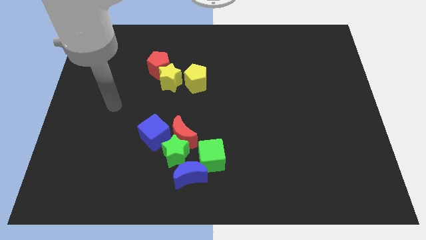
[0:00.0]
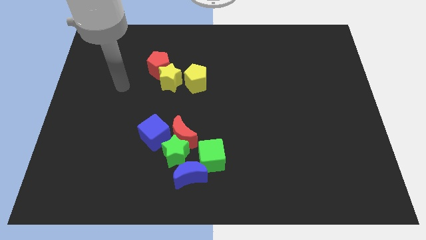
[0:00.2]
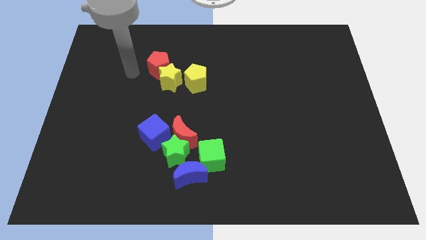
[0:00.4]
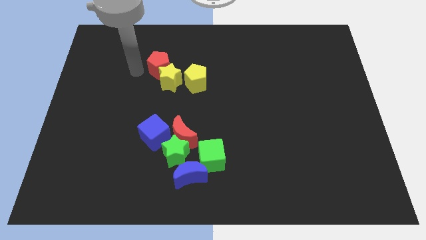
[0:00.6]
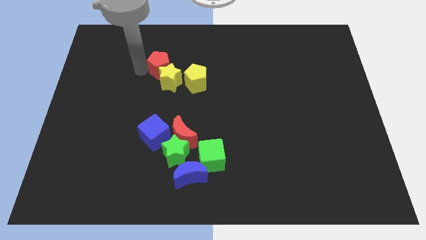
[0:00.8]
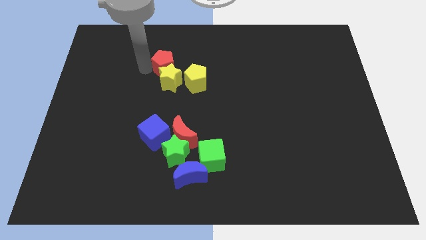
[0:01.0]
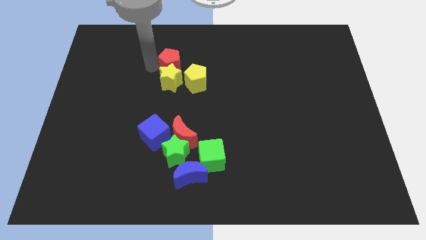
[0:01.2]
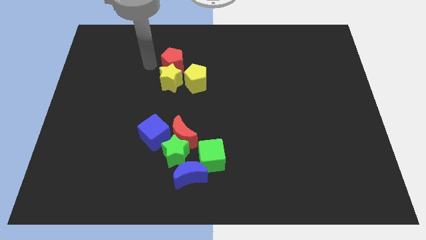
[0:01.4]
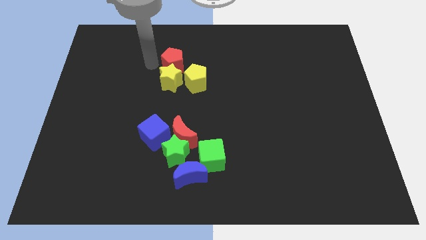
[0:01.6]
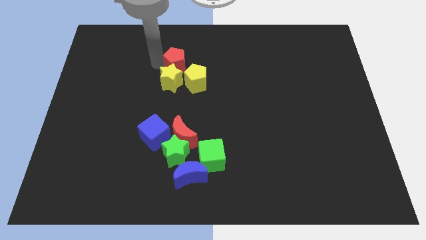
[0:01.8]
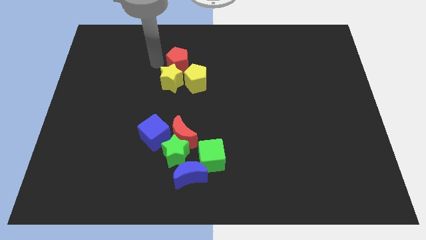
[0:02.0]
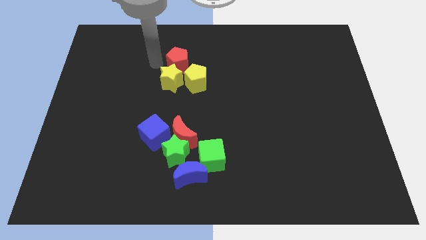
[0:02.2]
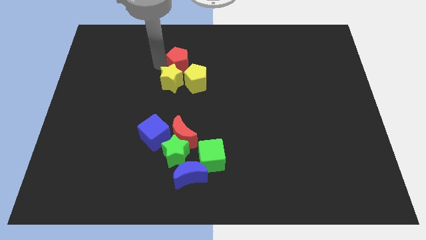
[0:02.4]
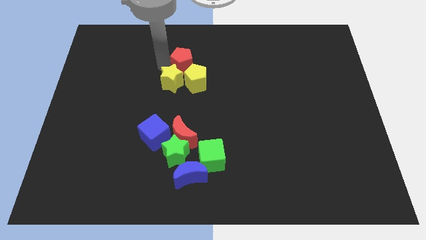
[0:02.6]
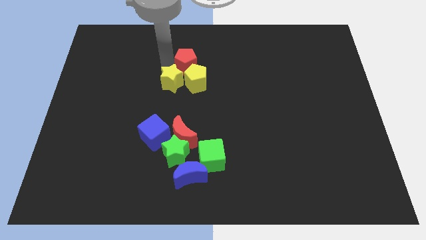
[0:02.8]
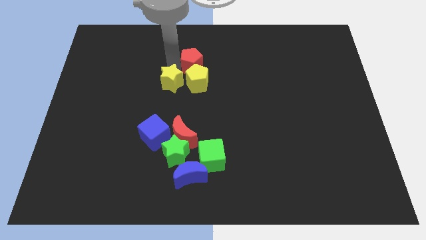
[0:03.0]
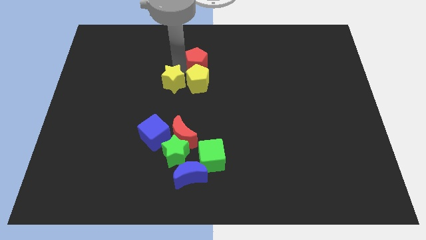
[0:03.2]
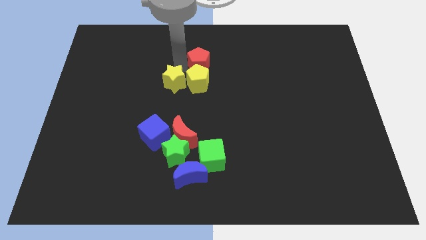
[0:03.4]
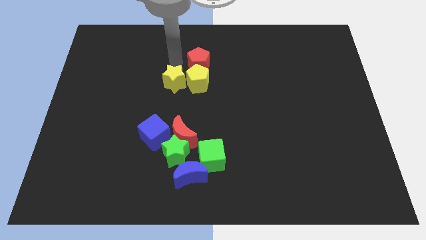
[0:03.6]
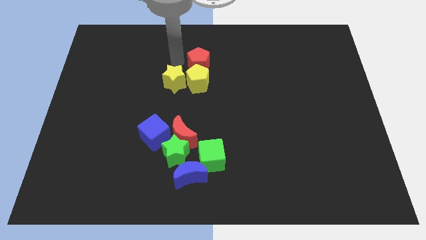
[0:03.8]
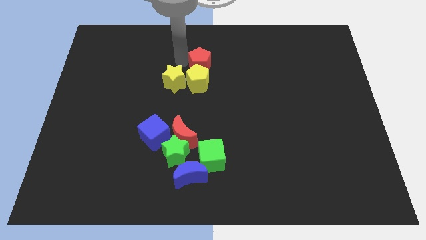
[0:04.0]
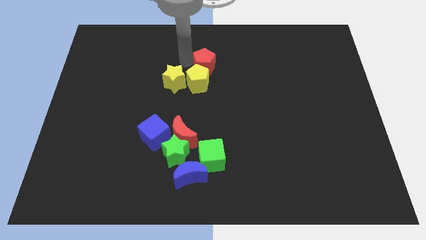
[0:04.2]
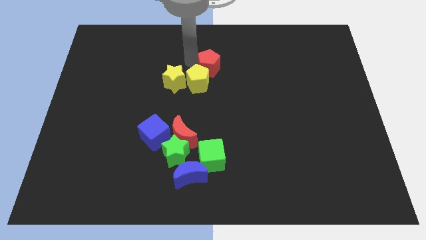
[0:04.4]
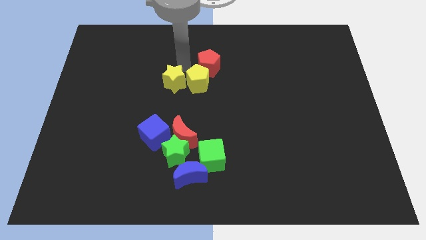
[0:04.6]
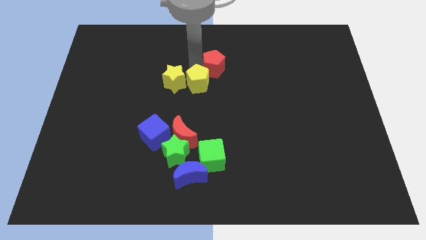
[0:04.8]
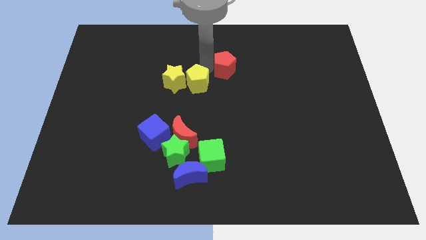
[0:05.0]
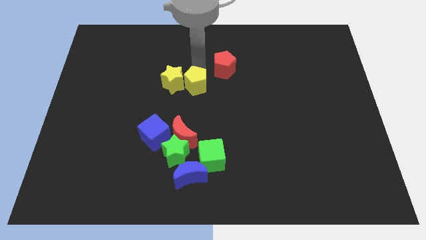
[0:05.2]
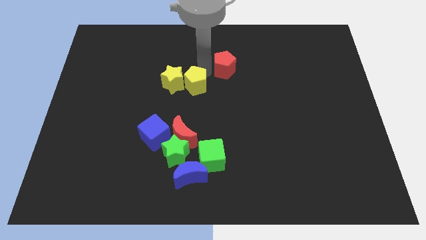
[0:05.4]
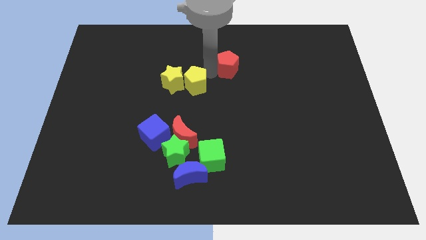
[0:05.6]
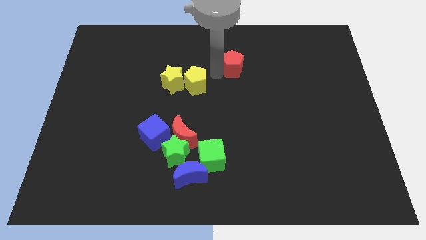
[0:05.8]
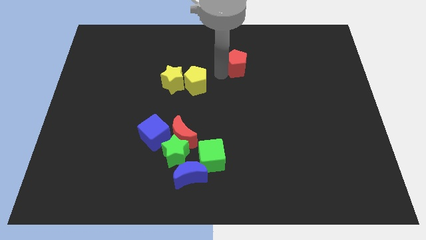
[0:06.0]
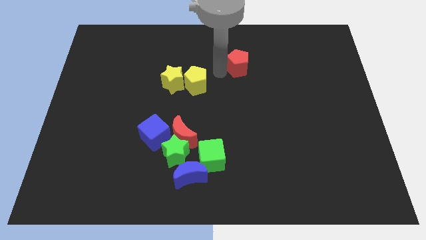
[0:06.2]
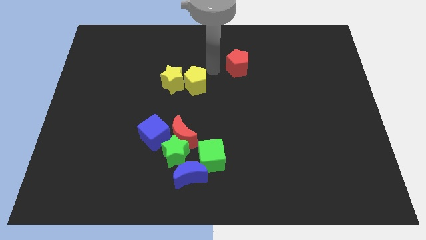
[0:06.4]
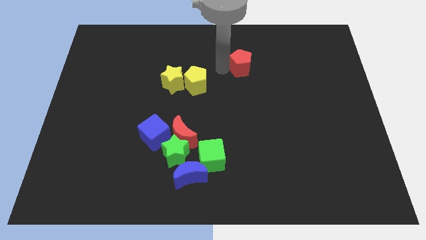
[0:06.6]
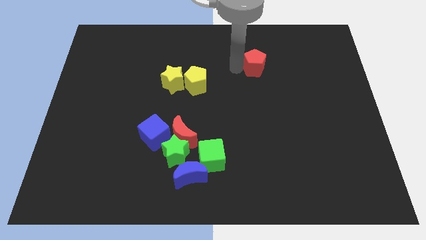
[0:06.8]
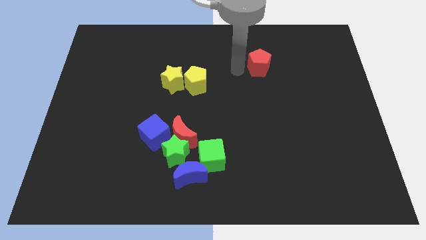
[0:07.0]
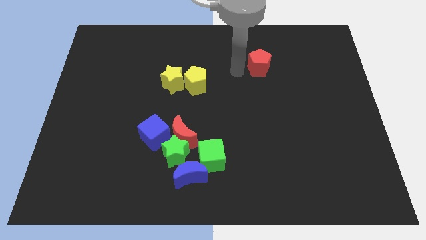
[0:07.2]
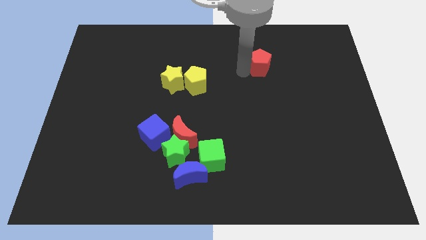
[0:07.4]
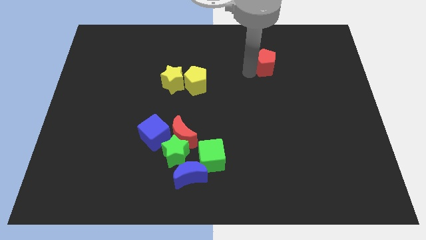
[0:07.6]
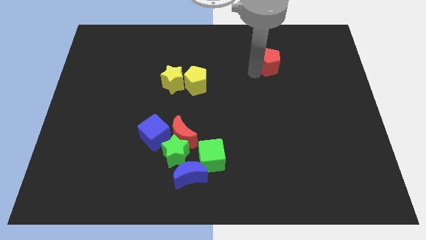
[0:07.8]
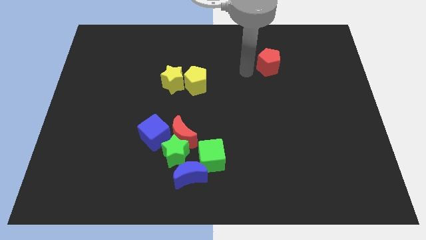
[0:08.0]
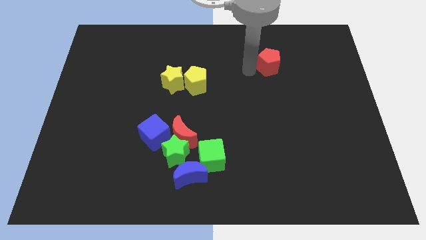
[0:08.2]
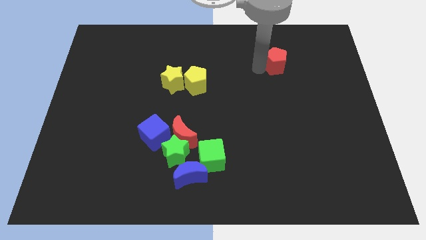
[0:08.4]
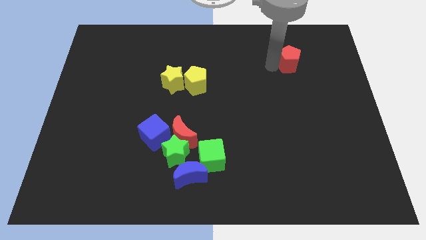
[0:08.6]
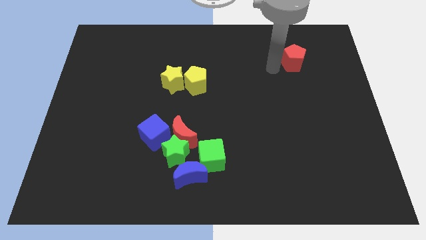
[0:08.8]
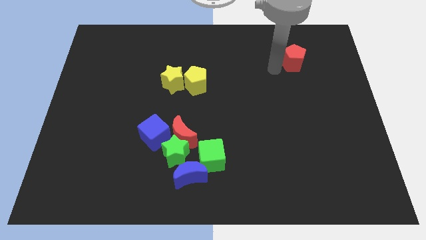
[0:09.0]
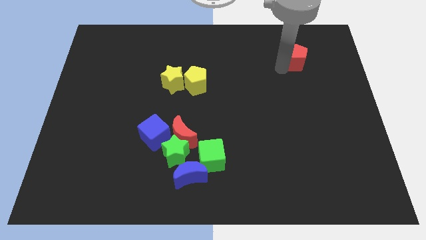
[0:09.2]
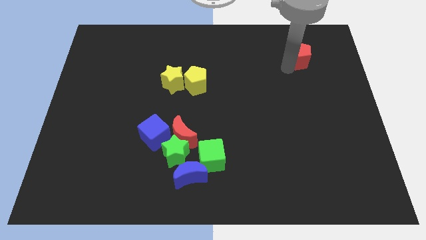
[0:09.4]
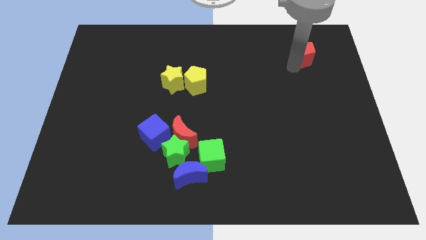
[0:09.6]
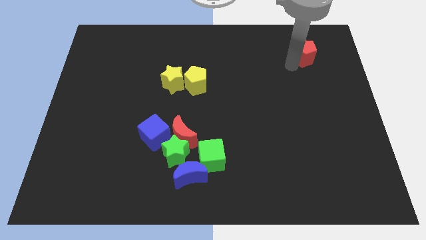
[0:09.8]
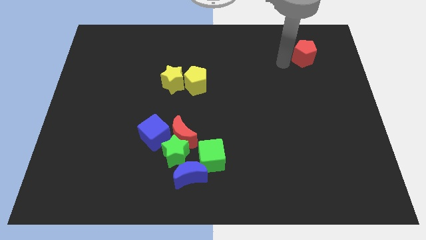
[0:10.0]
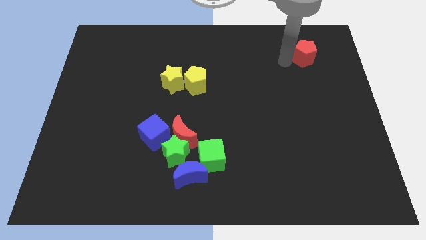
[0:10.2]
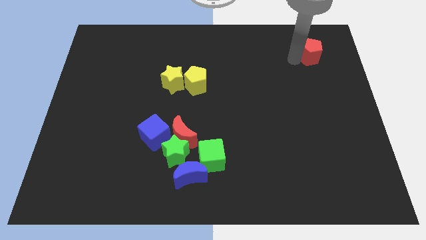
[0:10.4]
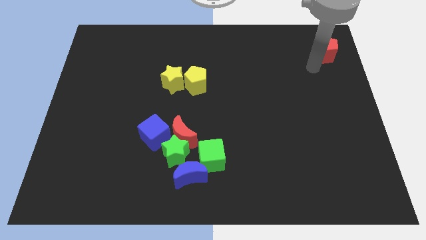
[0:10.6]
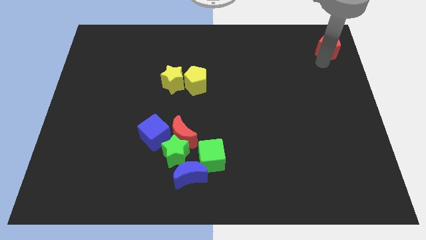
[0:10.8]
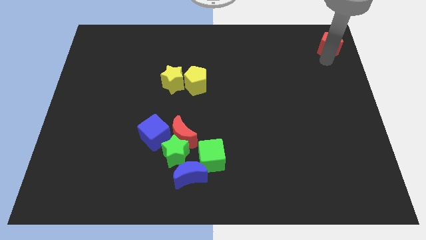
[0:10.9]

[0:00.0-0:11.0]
slide the red pentagon to the upper right corner

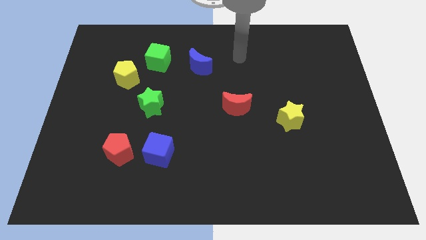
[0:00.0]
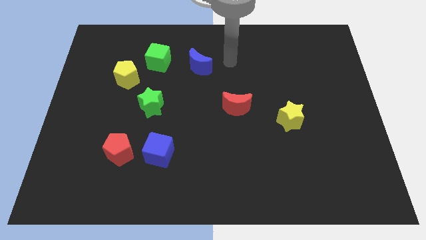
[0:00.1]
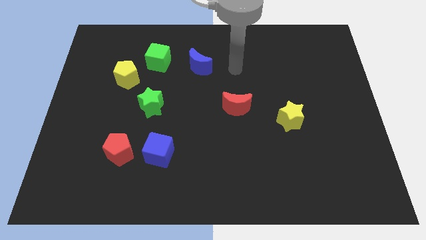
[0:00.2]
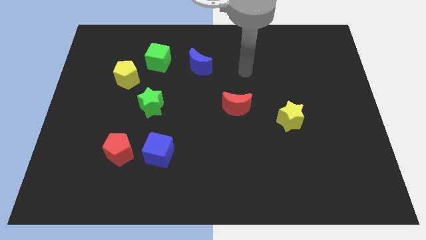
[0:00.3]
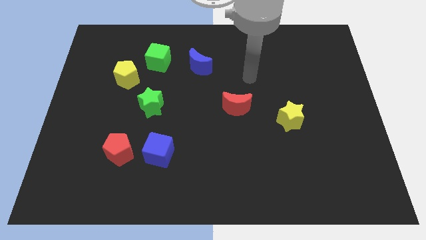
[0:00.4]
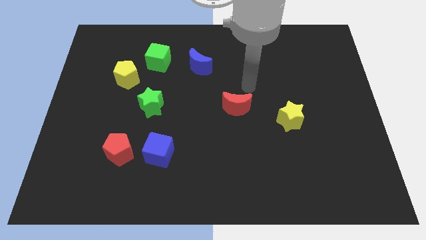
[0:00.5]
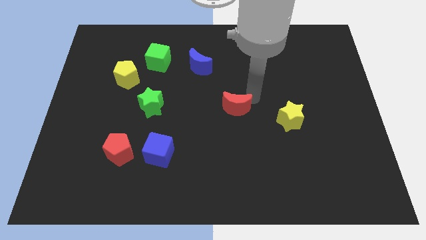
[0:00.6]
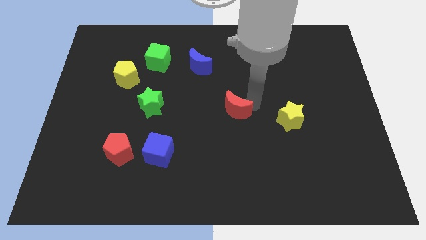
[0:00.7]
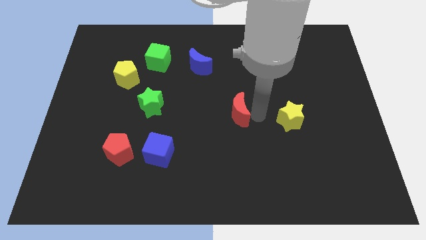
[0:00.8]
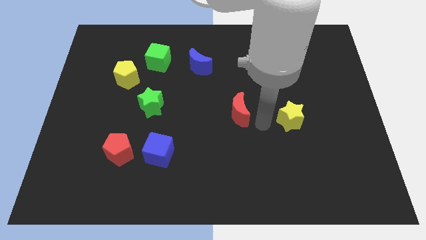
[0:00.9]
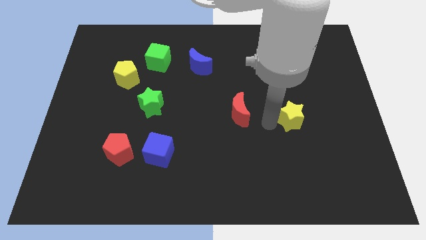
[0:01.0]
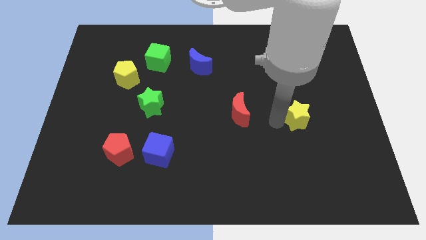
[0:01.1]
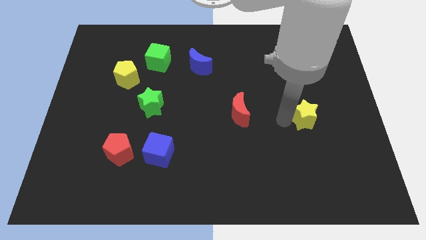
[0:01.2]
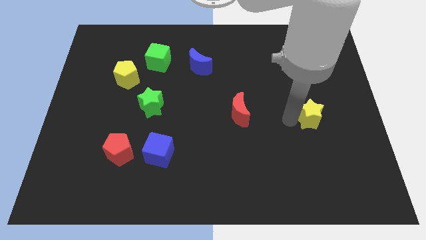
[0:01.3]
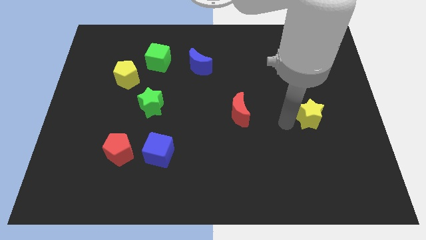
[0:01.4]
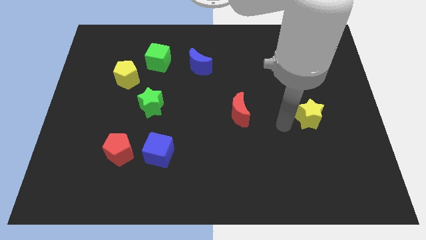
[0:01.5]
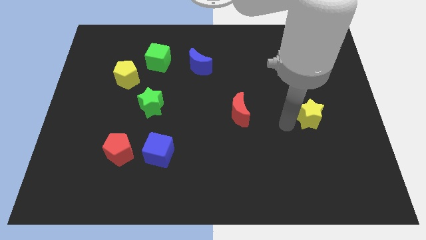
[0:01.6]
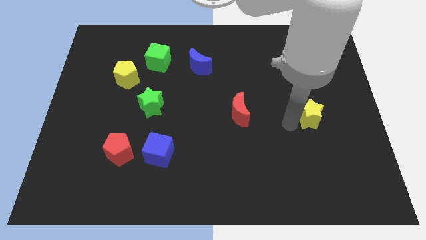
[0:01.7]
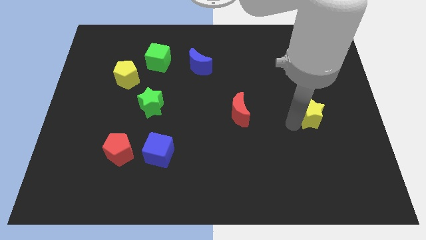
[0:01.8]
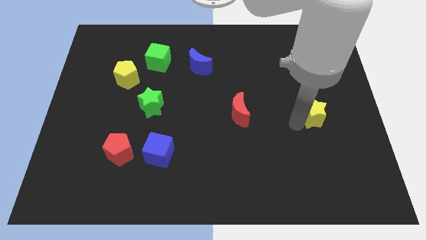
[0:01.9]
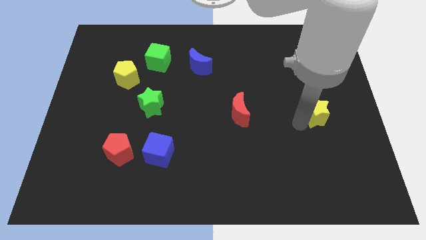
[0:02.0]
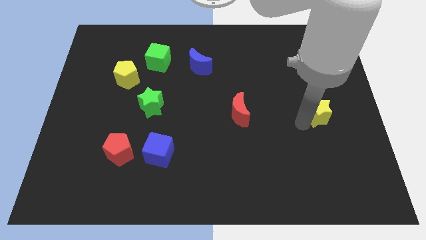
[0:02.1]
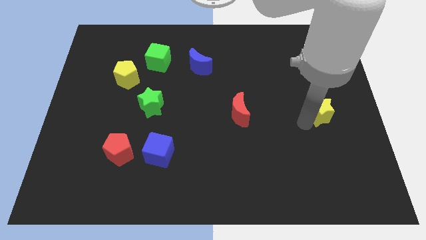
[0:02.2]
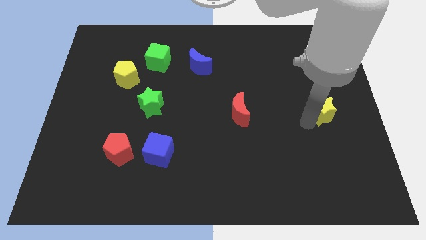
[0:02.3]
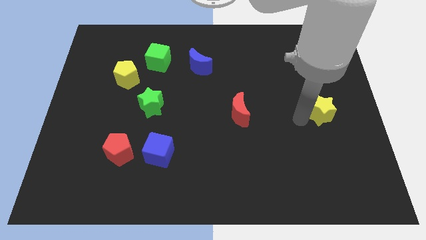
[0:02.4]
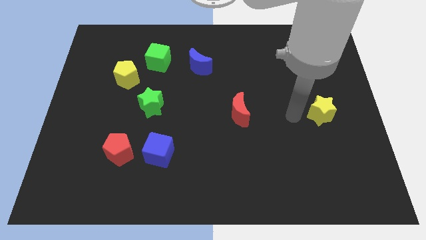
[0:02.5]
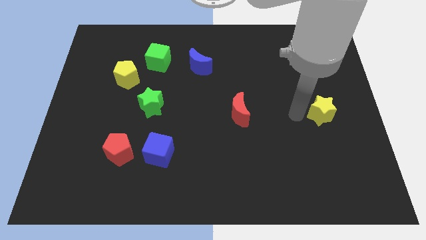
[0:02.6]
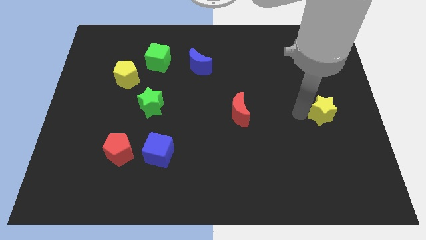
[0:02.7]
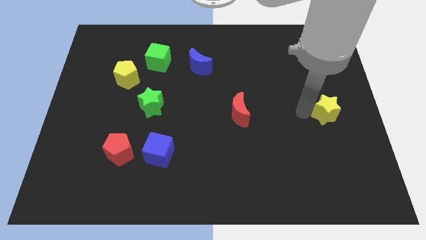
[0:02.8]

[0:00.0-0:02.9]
slide the yellow star to the right side
